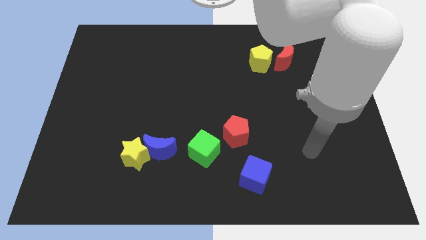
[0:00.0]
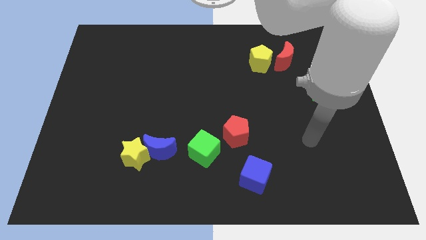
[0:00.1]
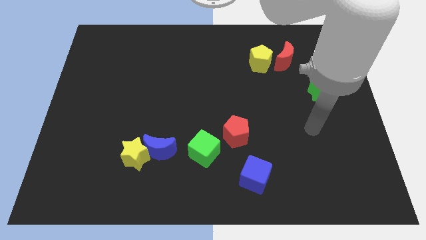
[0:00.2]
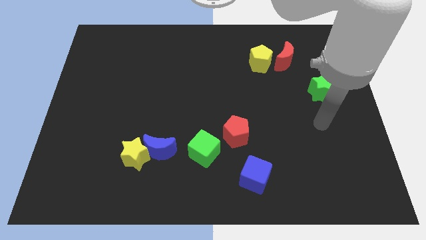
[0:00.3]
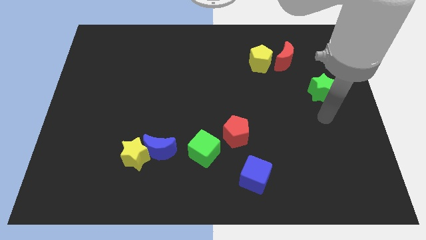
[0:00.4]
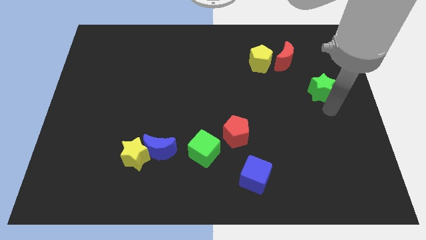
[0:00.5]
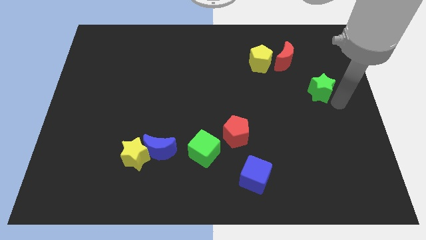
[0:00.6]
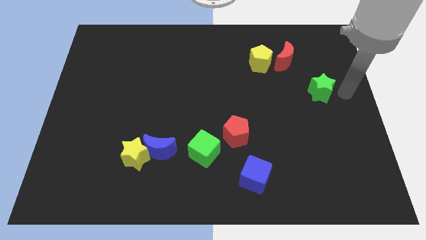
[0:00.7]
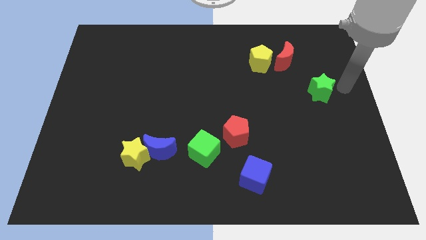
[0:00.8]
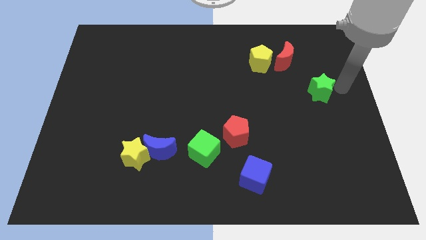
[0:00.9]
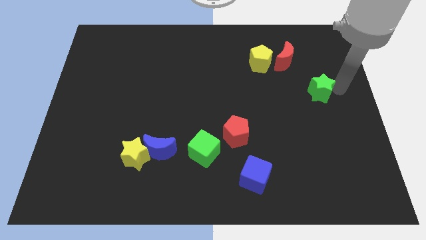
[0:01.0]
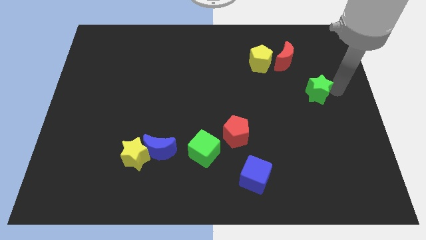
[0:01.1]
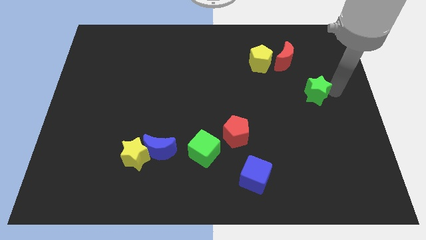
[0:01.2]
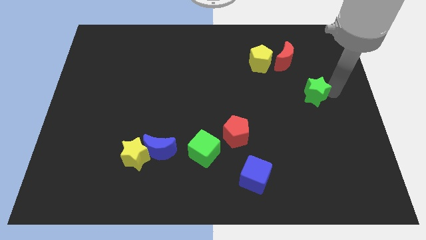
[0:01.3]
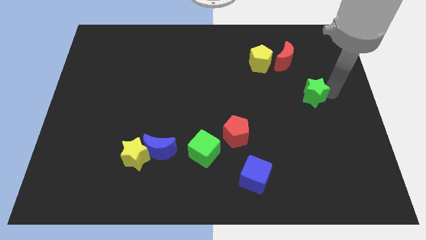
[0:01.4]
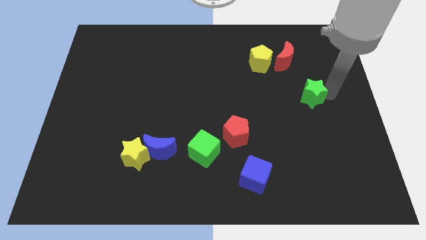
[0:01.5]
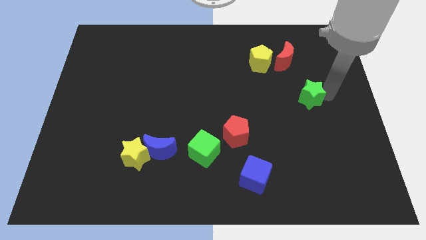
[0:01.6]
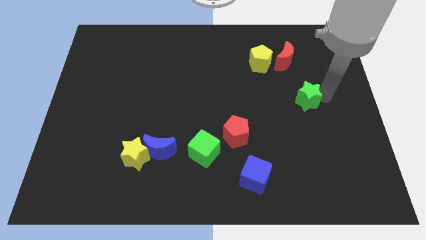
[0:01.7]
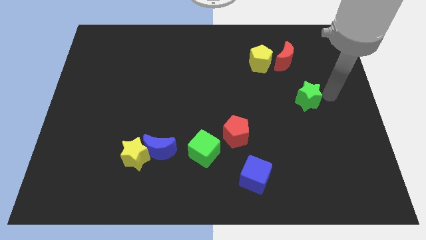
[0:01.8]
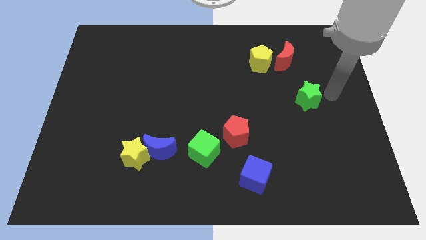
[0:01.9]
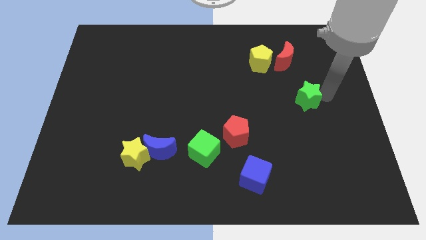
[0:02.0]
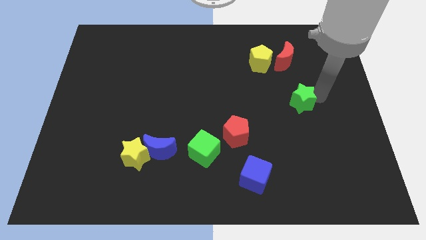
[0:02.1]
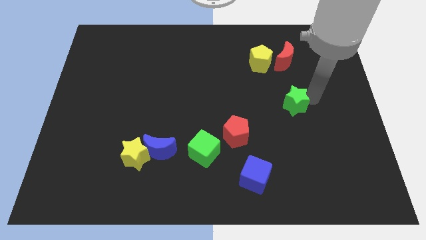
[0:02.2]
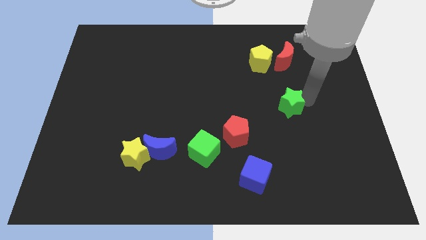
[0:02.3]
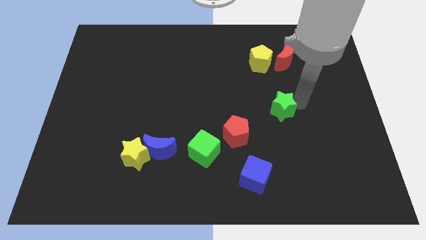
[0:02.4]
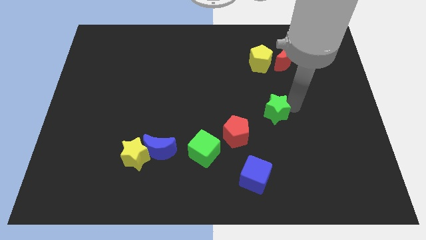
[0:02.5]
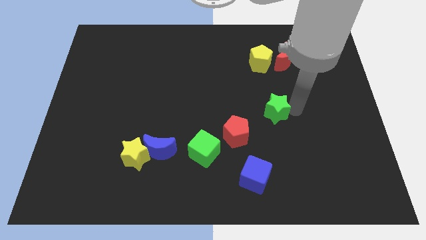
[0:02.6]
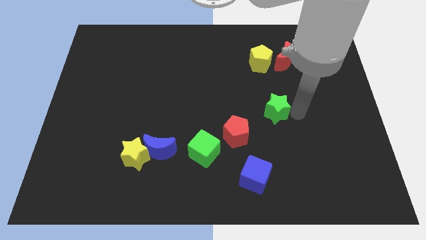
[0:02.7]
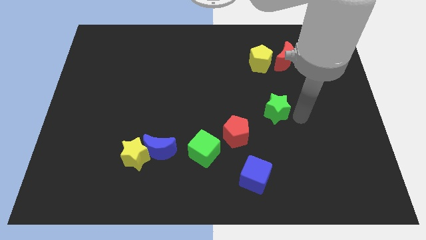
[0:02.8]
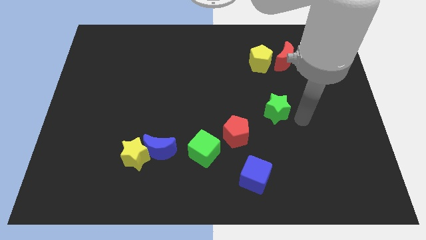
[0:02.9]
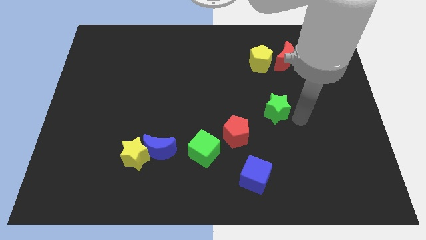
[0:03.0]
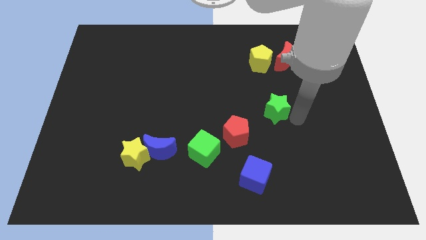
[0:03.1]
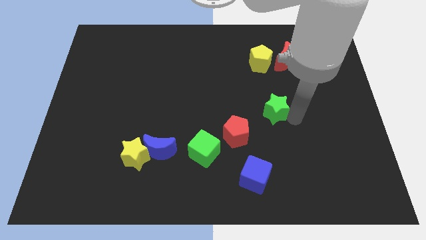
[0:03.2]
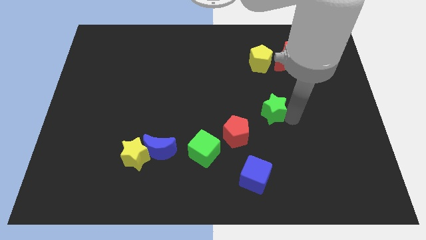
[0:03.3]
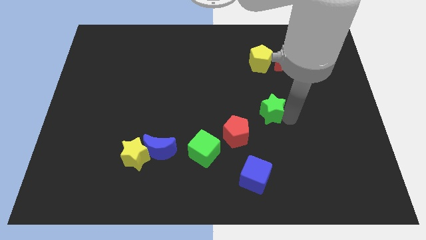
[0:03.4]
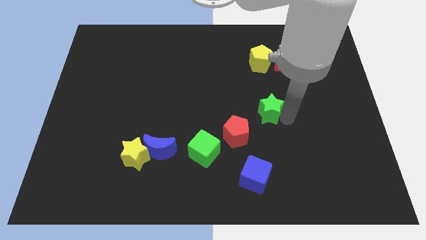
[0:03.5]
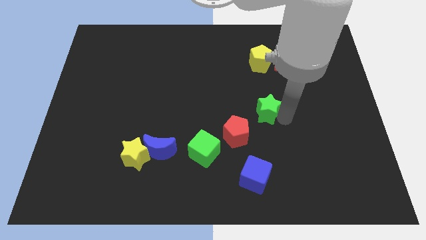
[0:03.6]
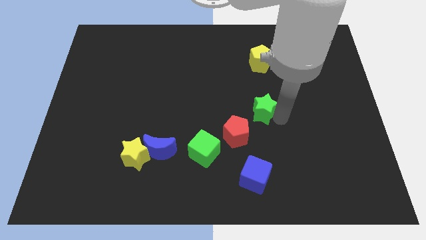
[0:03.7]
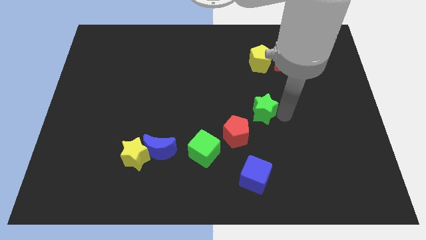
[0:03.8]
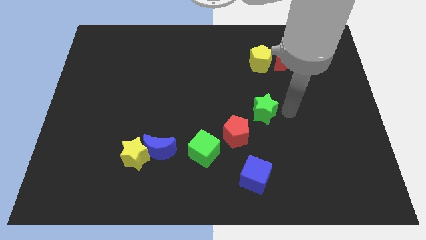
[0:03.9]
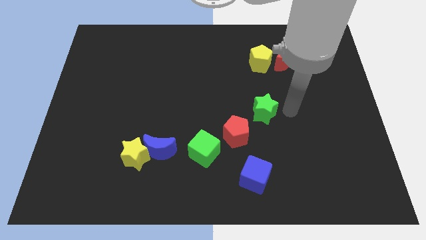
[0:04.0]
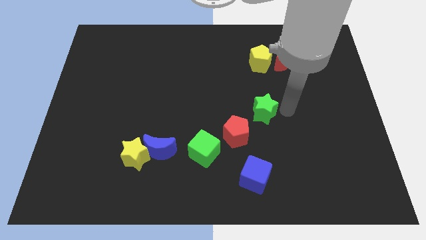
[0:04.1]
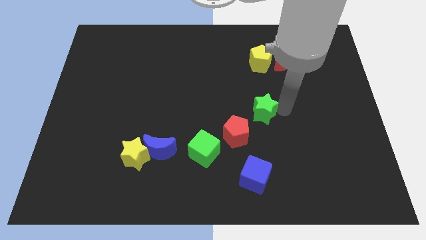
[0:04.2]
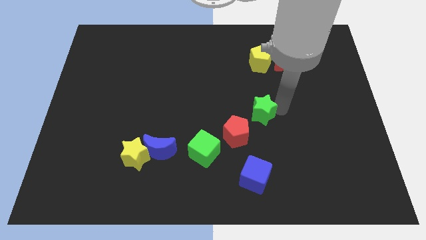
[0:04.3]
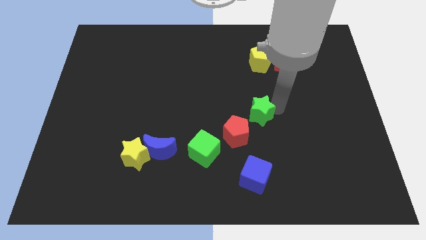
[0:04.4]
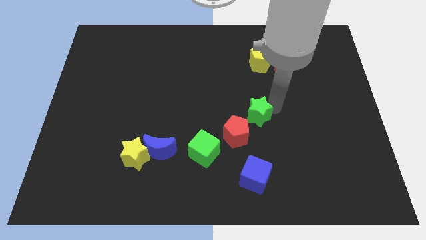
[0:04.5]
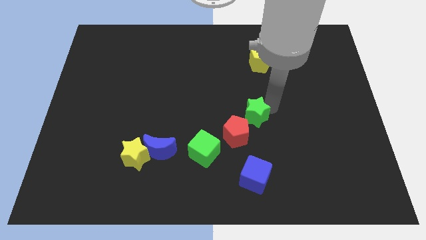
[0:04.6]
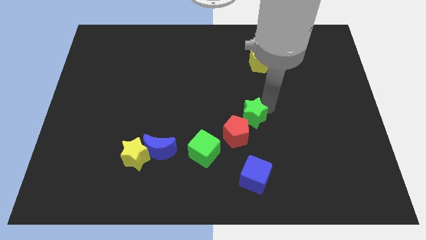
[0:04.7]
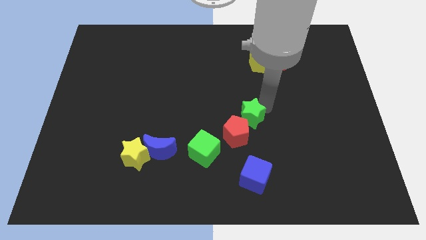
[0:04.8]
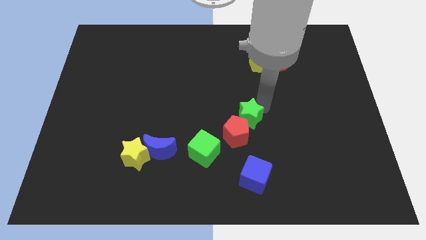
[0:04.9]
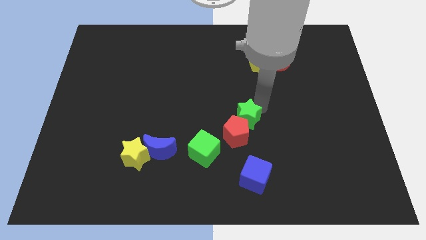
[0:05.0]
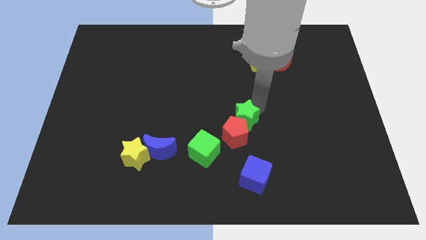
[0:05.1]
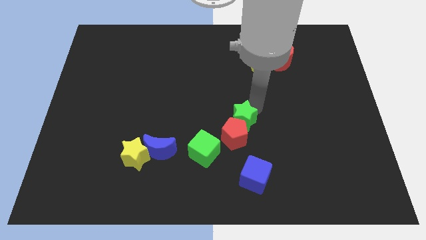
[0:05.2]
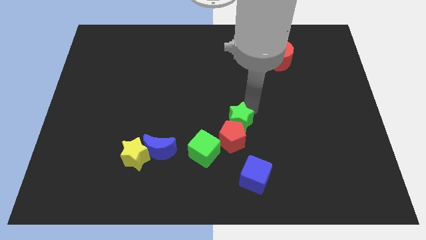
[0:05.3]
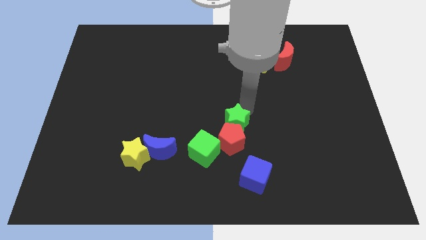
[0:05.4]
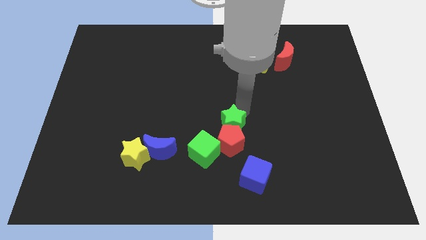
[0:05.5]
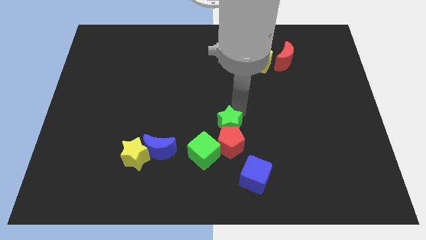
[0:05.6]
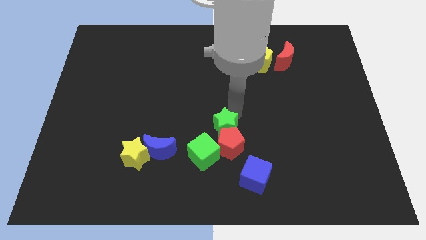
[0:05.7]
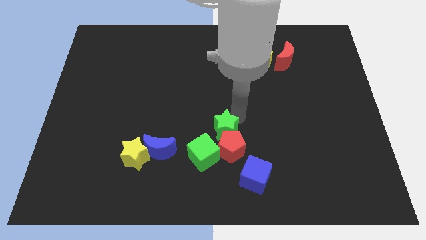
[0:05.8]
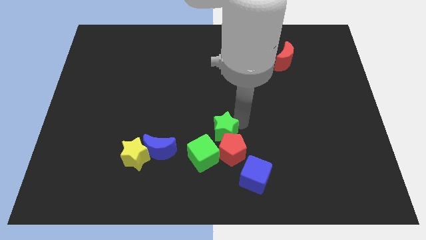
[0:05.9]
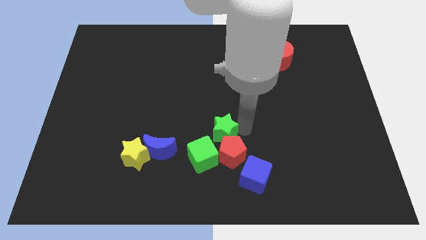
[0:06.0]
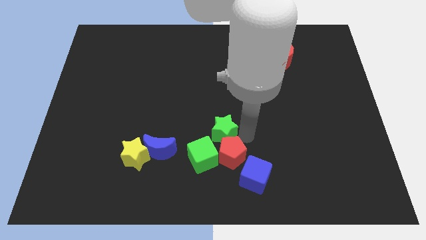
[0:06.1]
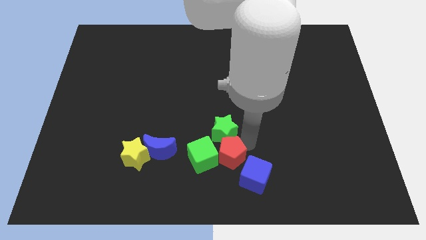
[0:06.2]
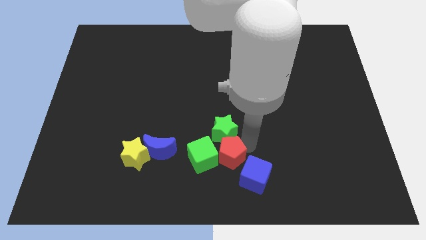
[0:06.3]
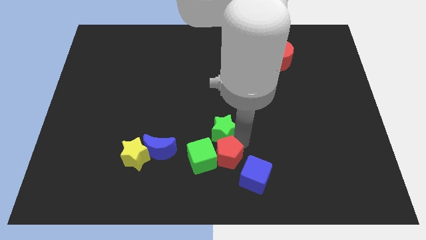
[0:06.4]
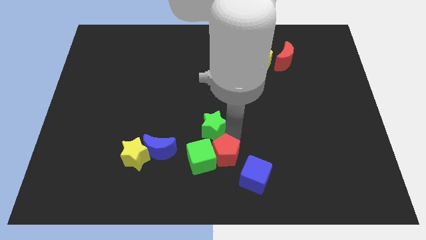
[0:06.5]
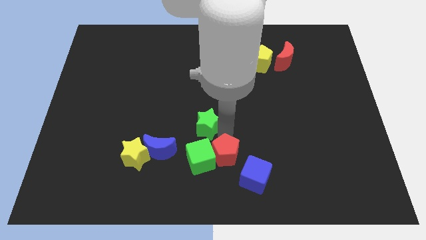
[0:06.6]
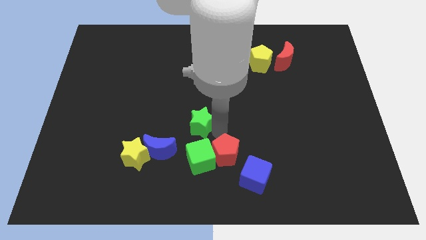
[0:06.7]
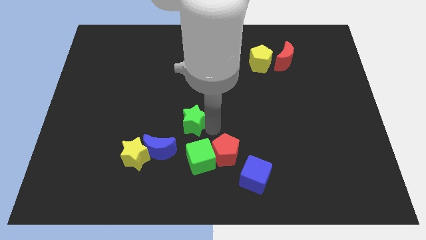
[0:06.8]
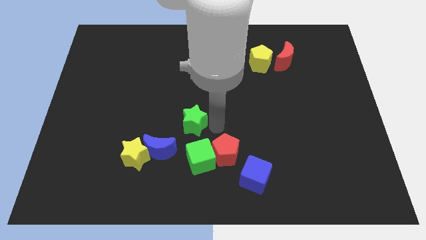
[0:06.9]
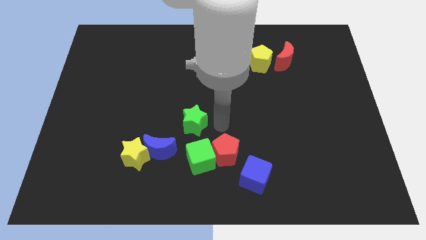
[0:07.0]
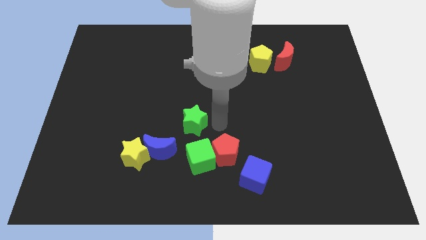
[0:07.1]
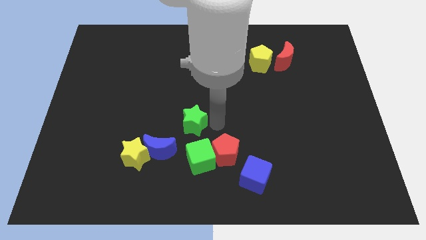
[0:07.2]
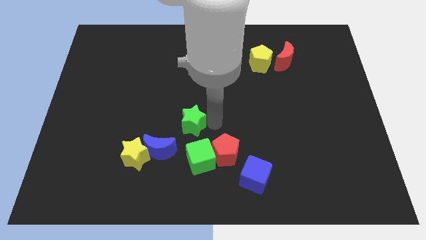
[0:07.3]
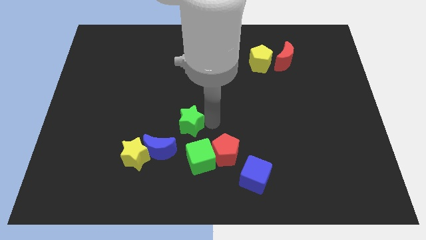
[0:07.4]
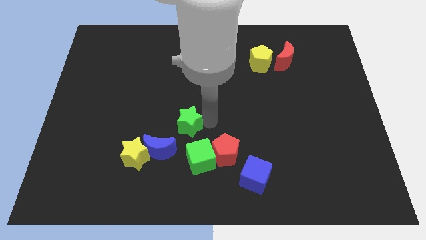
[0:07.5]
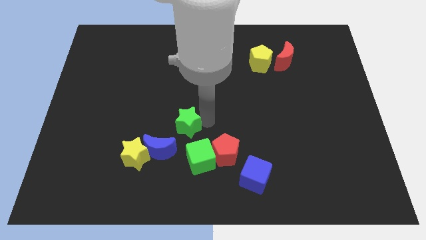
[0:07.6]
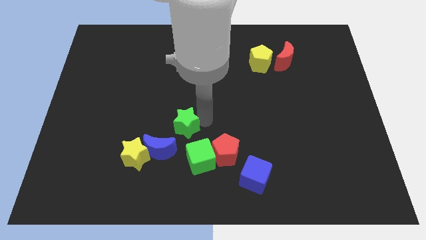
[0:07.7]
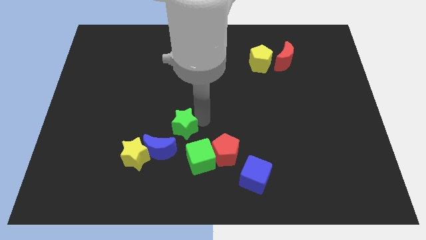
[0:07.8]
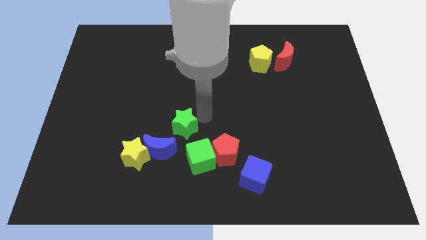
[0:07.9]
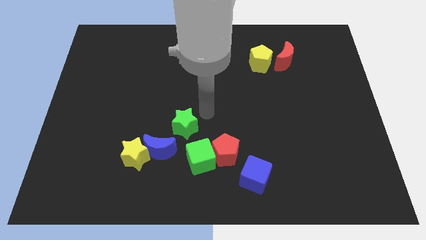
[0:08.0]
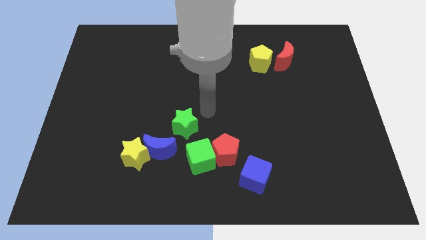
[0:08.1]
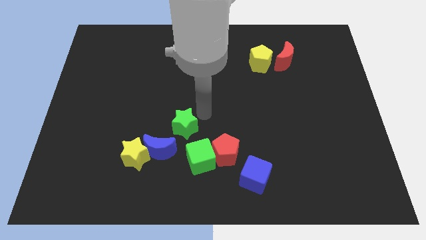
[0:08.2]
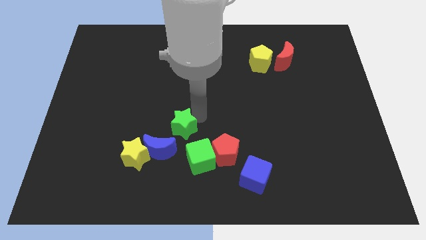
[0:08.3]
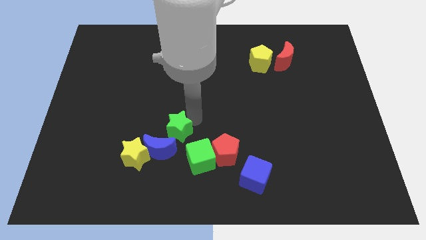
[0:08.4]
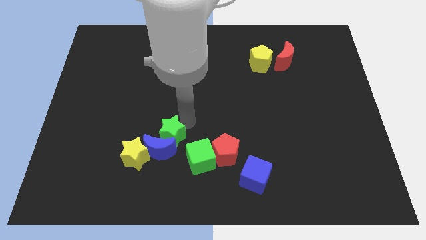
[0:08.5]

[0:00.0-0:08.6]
push the green star next to the blue moon
